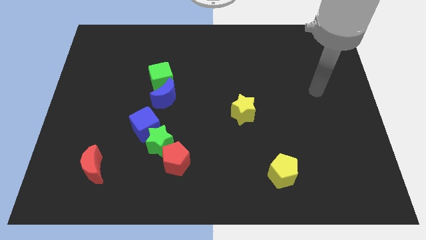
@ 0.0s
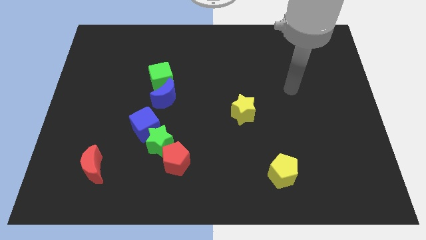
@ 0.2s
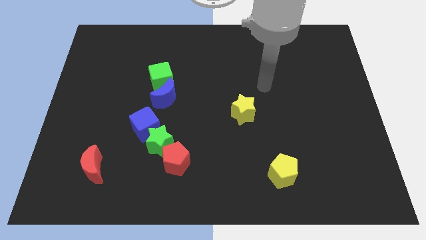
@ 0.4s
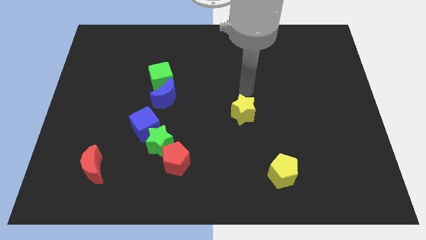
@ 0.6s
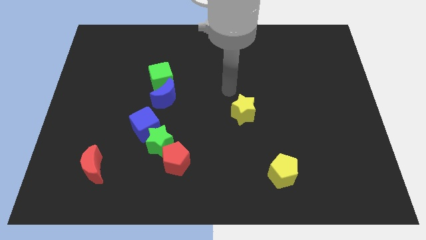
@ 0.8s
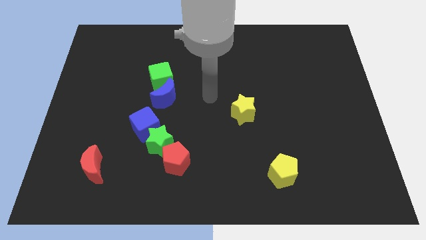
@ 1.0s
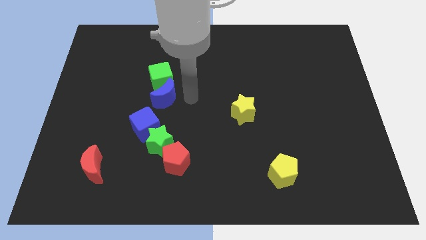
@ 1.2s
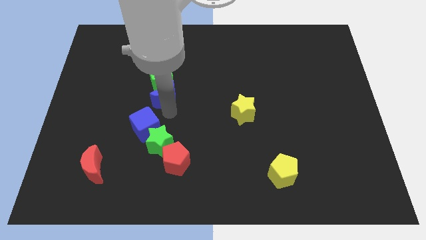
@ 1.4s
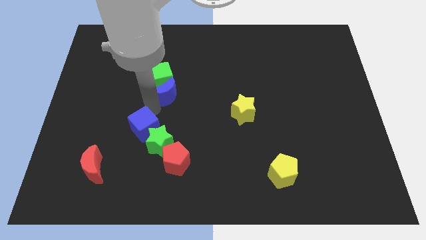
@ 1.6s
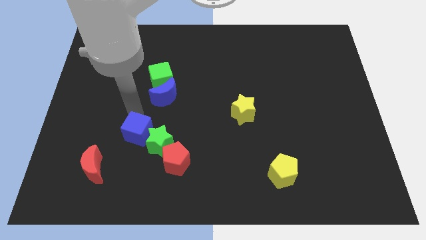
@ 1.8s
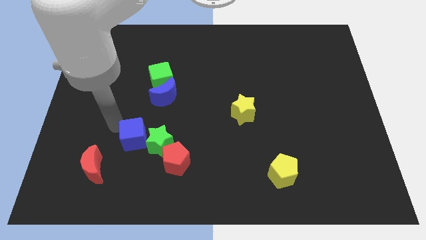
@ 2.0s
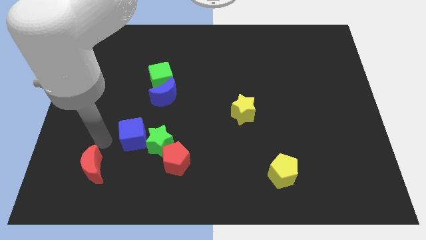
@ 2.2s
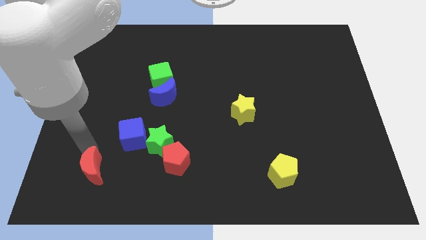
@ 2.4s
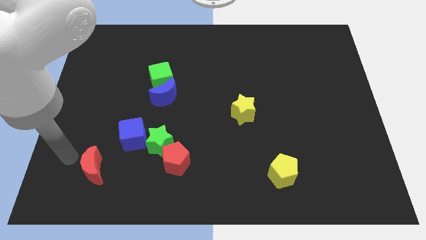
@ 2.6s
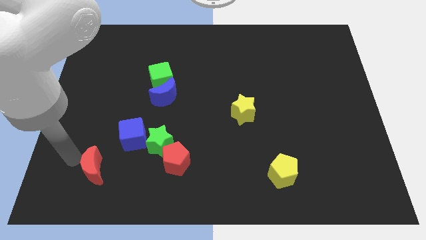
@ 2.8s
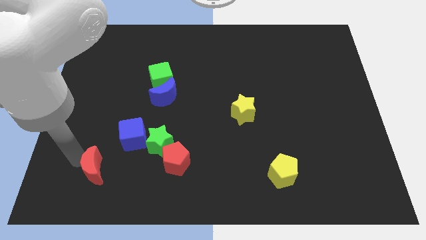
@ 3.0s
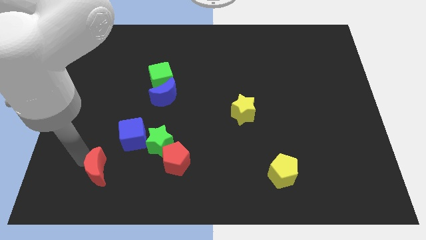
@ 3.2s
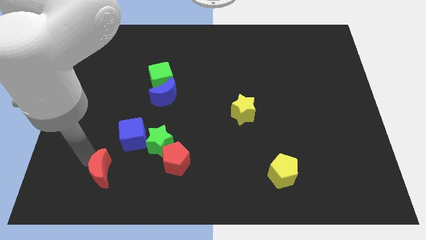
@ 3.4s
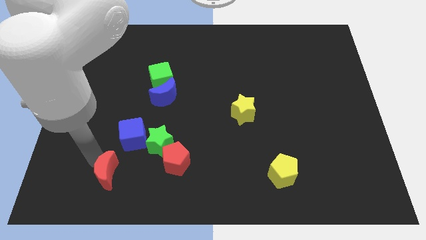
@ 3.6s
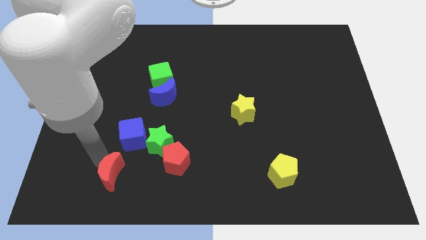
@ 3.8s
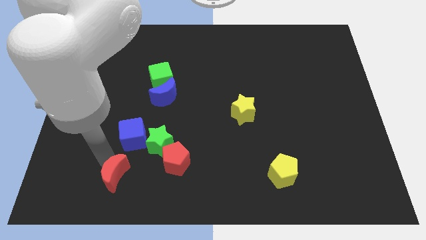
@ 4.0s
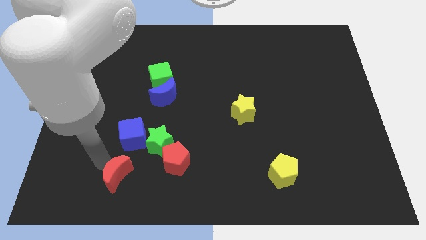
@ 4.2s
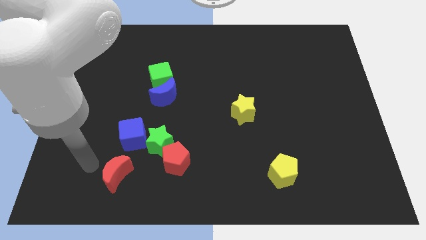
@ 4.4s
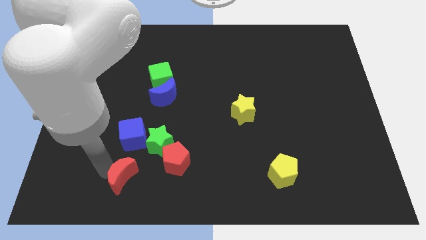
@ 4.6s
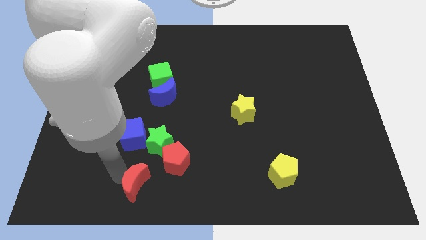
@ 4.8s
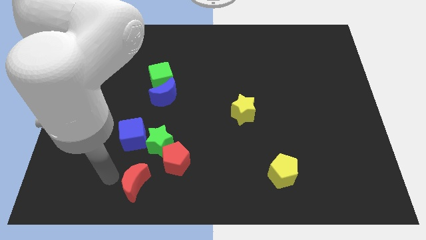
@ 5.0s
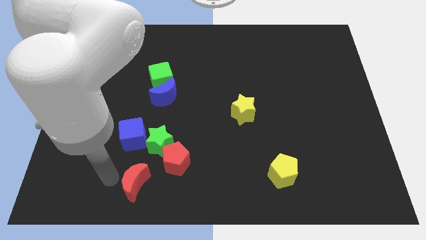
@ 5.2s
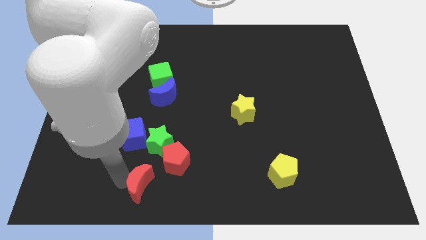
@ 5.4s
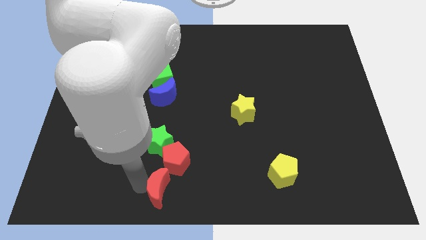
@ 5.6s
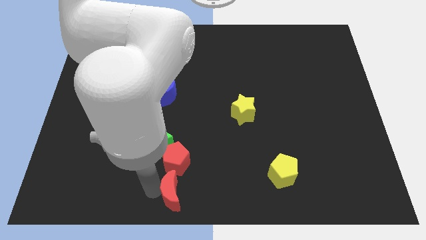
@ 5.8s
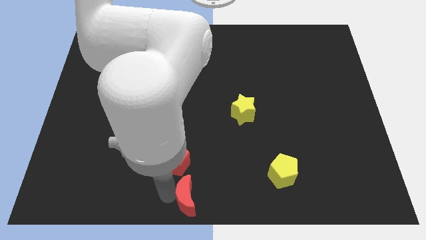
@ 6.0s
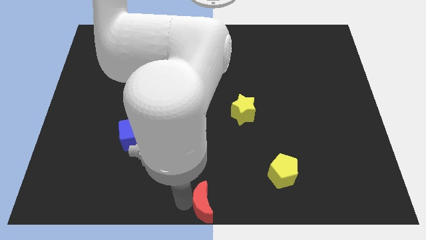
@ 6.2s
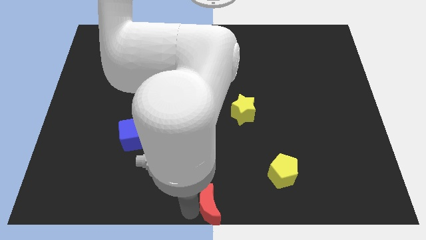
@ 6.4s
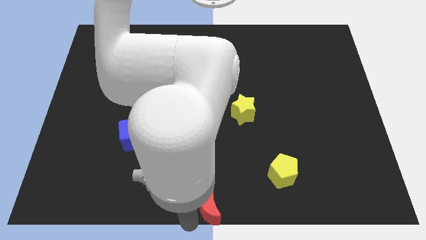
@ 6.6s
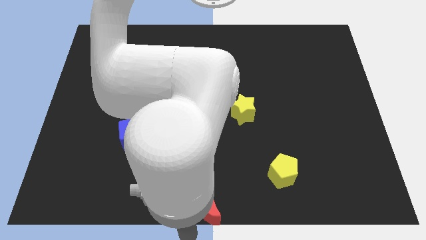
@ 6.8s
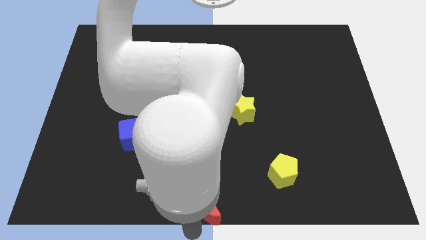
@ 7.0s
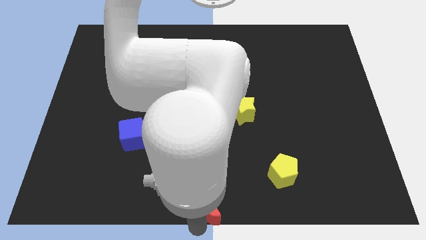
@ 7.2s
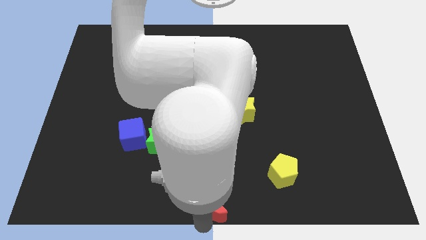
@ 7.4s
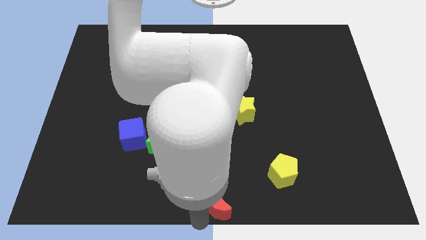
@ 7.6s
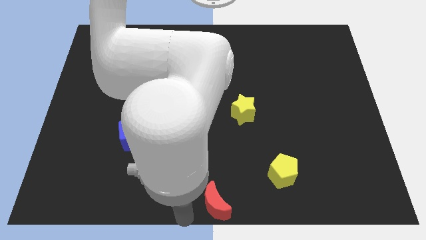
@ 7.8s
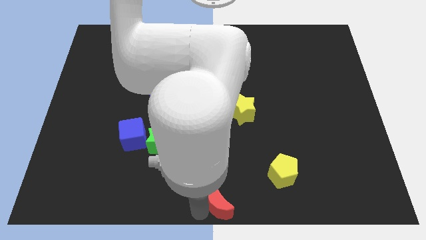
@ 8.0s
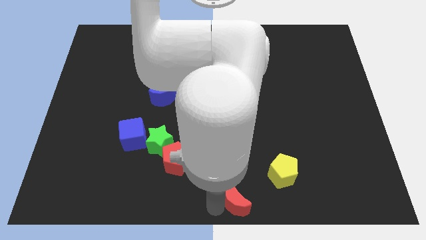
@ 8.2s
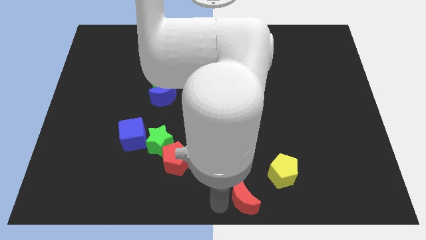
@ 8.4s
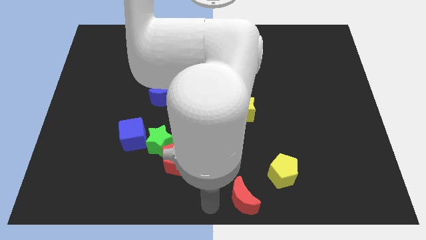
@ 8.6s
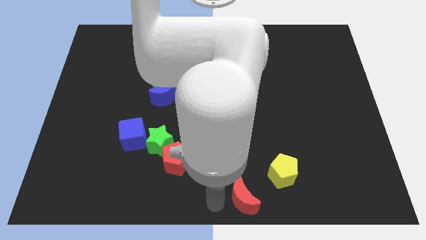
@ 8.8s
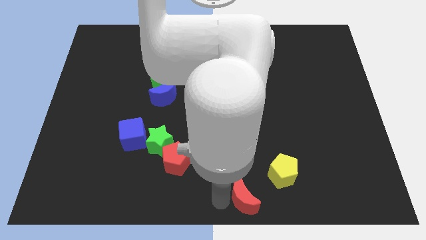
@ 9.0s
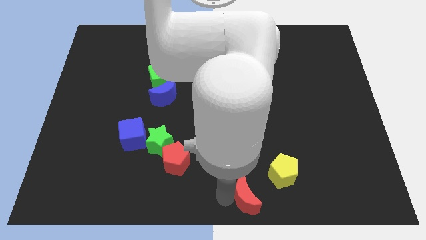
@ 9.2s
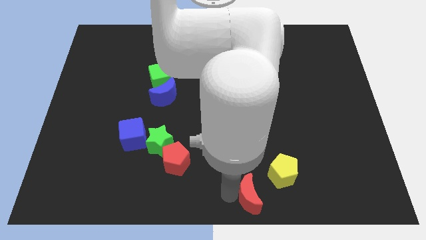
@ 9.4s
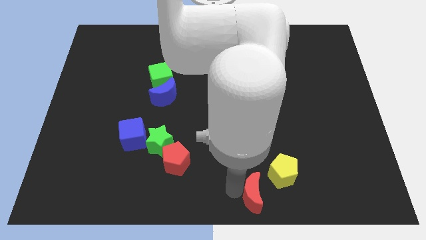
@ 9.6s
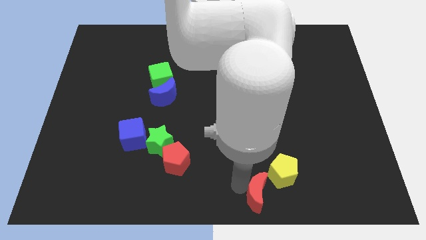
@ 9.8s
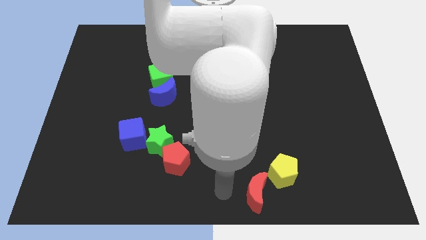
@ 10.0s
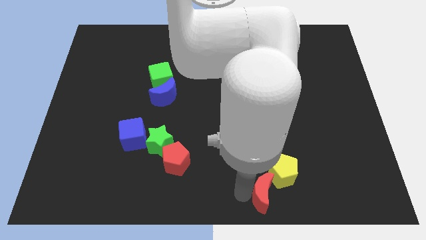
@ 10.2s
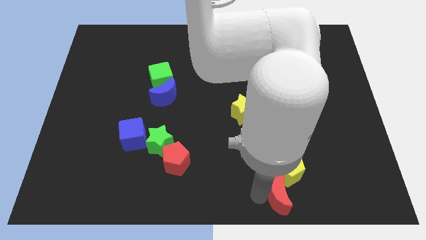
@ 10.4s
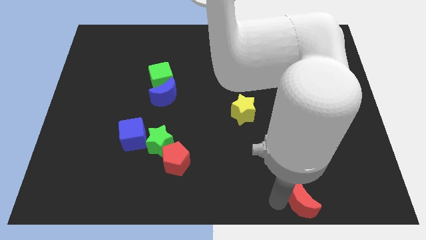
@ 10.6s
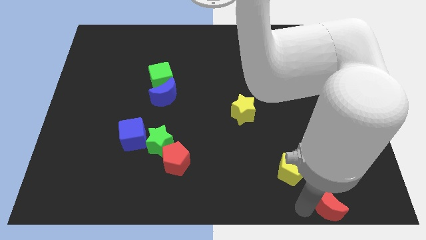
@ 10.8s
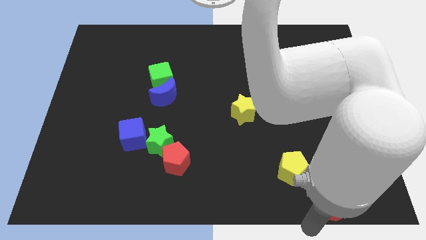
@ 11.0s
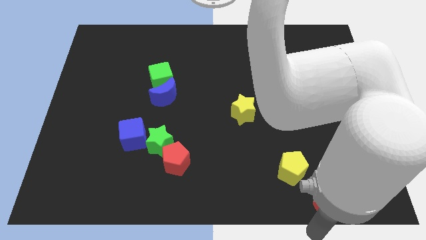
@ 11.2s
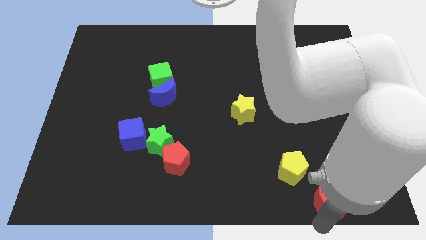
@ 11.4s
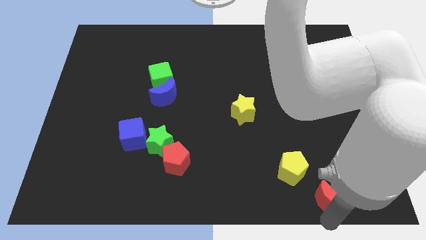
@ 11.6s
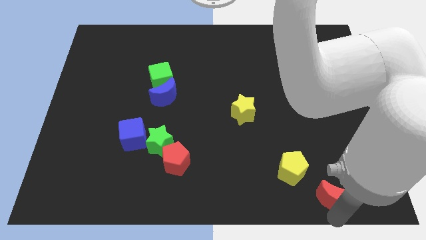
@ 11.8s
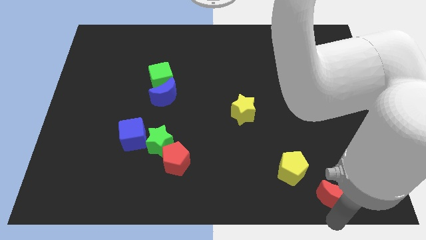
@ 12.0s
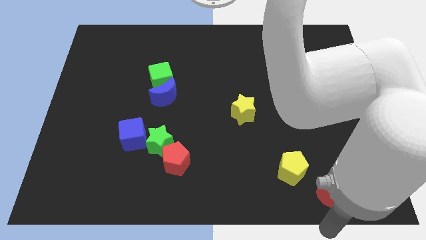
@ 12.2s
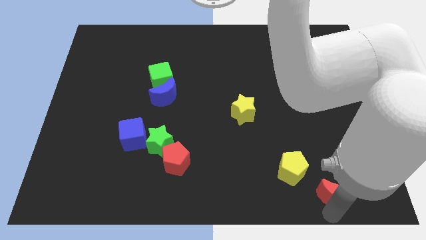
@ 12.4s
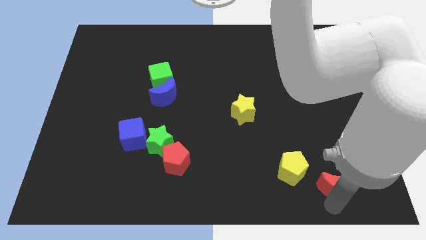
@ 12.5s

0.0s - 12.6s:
slide the red moon right of the yellow pentagon
